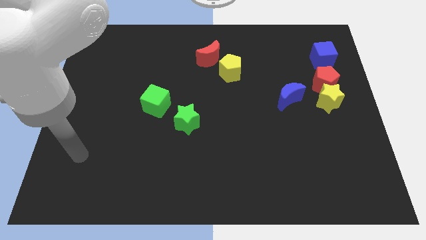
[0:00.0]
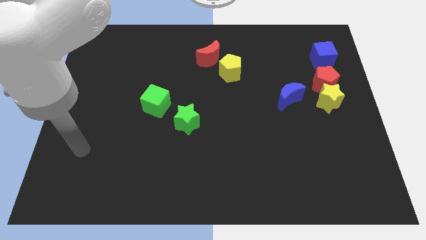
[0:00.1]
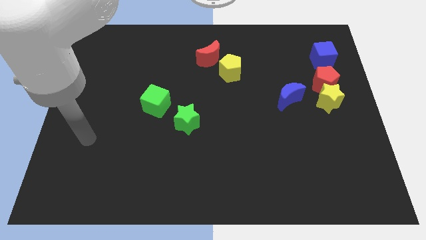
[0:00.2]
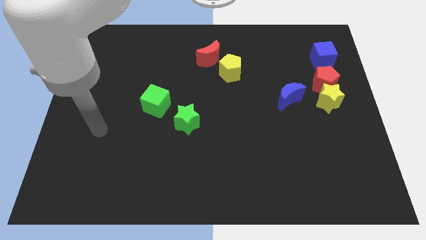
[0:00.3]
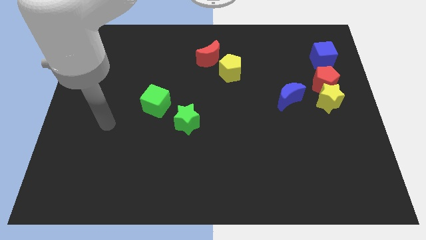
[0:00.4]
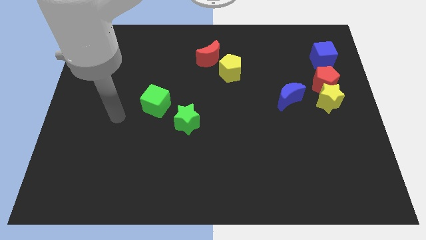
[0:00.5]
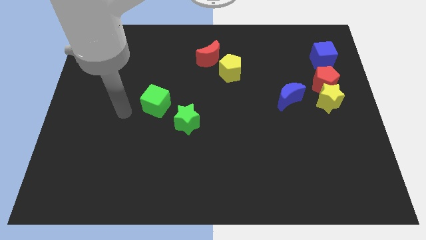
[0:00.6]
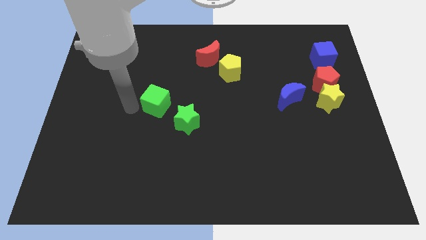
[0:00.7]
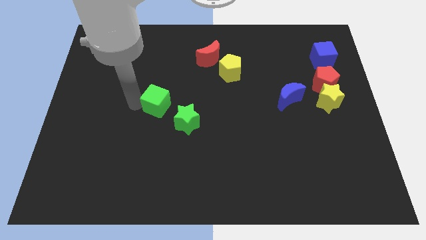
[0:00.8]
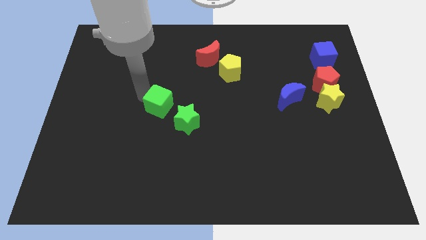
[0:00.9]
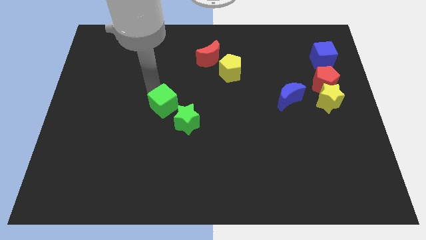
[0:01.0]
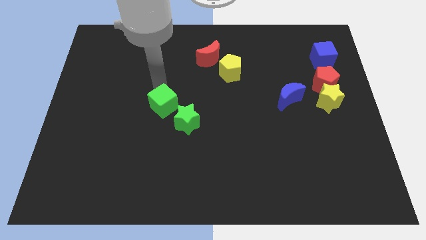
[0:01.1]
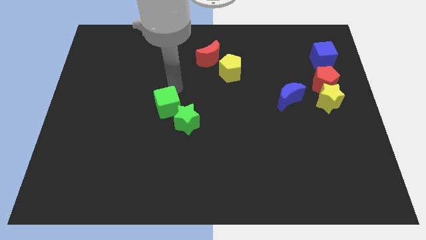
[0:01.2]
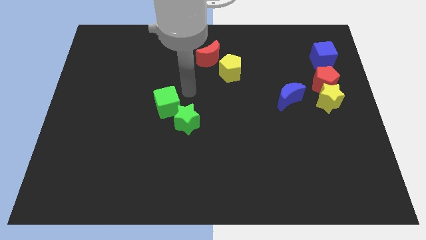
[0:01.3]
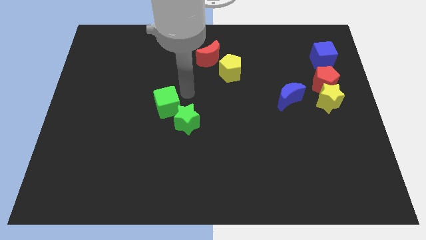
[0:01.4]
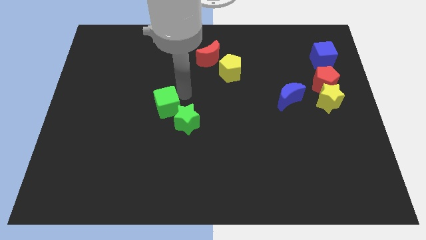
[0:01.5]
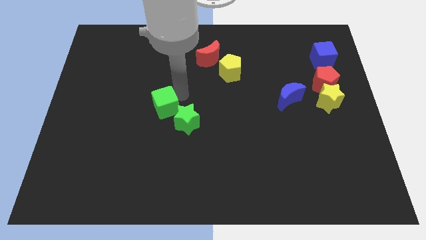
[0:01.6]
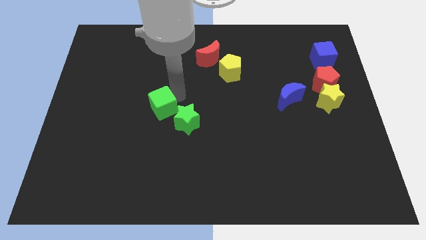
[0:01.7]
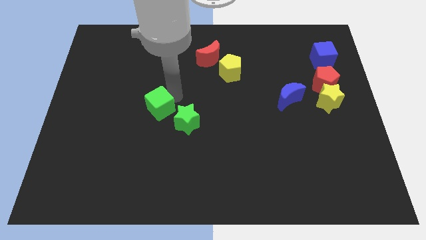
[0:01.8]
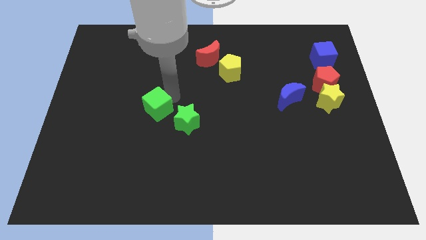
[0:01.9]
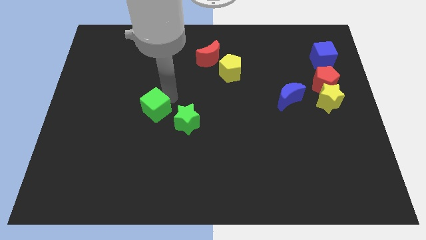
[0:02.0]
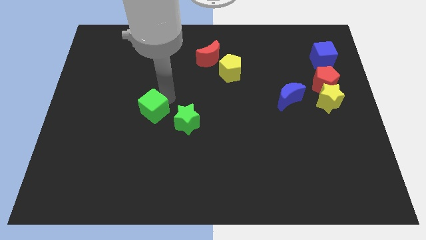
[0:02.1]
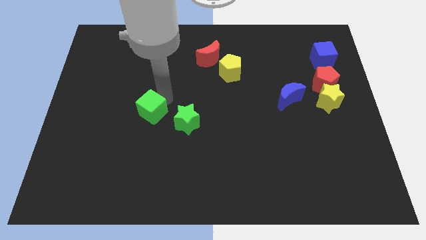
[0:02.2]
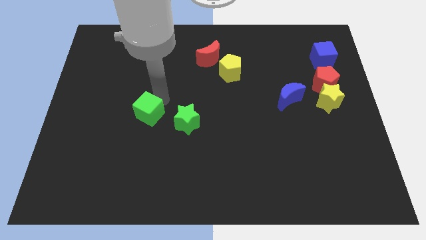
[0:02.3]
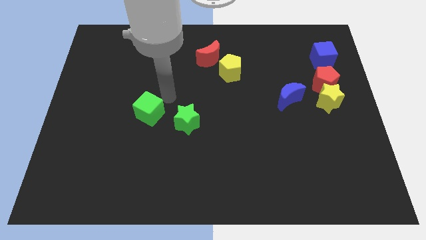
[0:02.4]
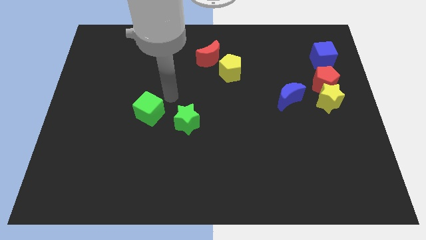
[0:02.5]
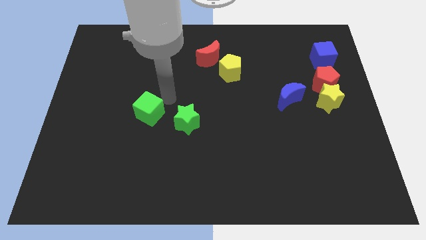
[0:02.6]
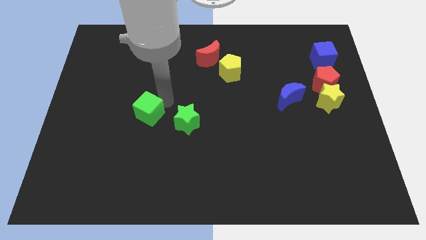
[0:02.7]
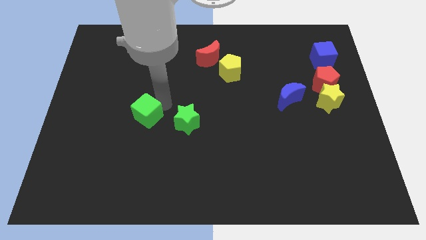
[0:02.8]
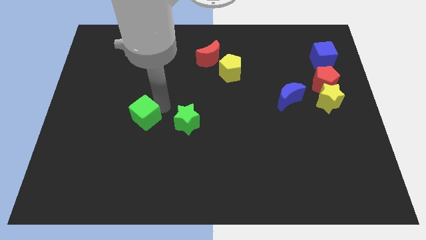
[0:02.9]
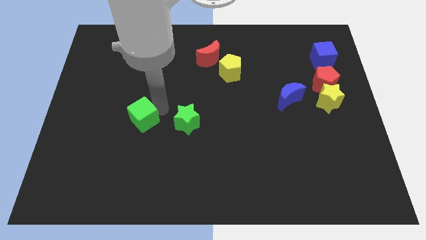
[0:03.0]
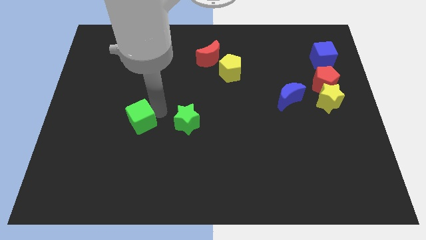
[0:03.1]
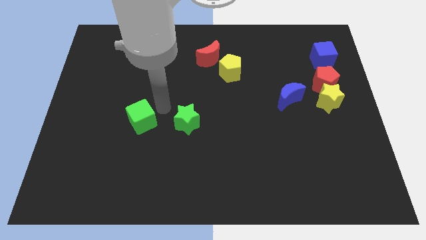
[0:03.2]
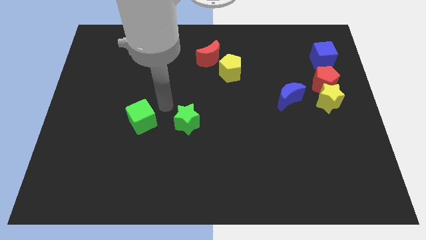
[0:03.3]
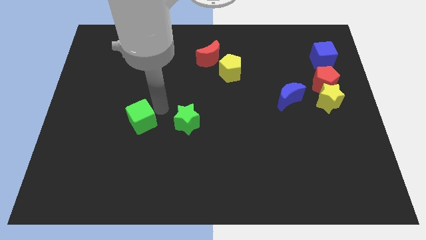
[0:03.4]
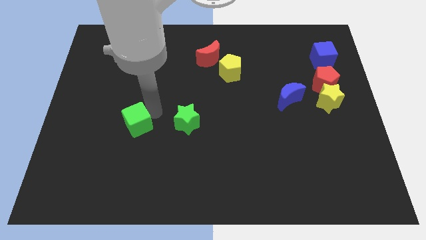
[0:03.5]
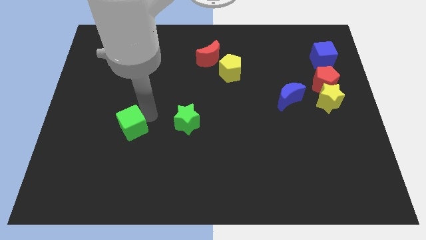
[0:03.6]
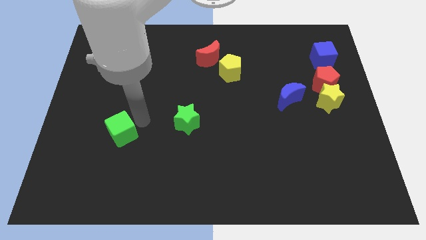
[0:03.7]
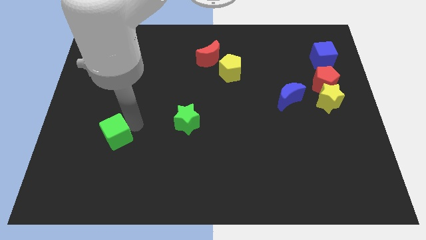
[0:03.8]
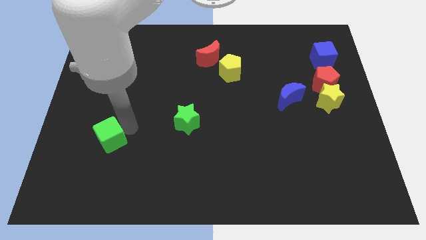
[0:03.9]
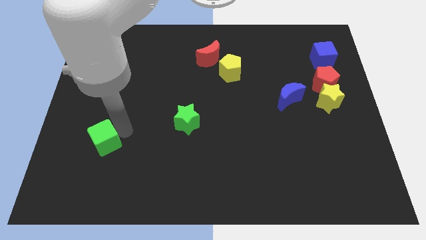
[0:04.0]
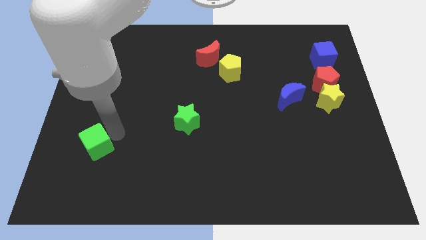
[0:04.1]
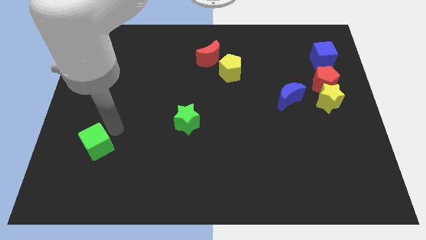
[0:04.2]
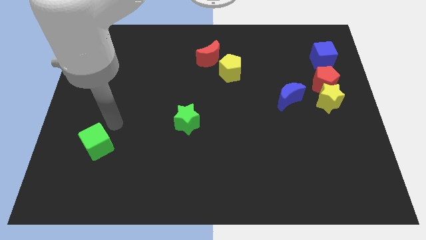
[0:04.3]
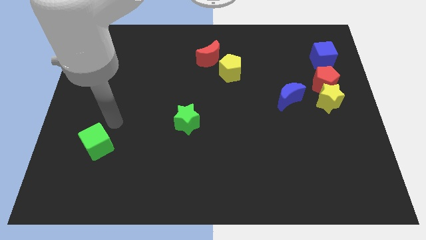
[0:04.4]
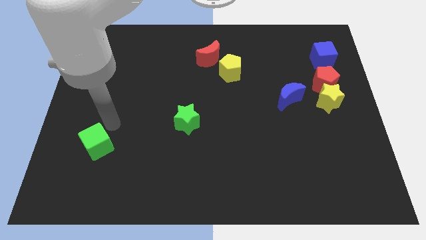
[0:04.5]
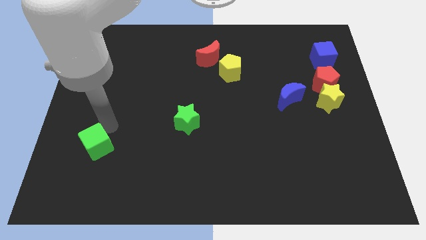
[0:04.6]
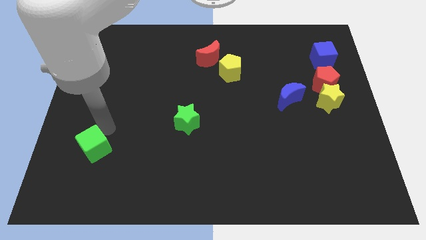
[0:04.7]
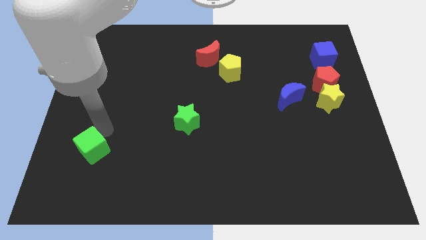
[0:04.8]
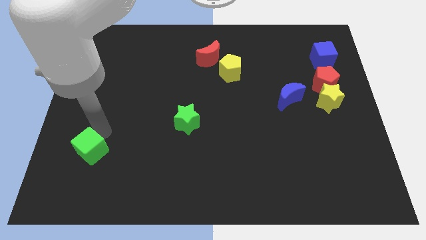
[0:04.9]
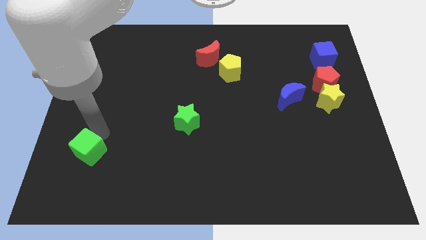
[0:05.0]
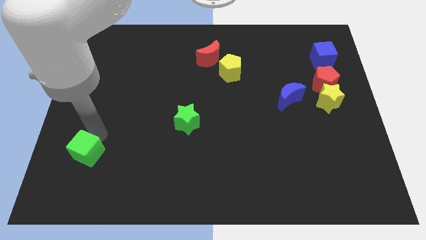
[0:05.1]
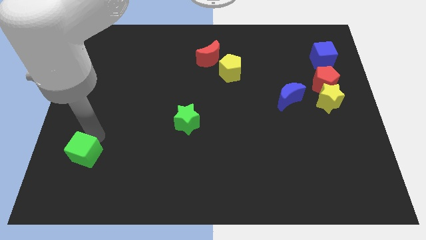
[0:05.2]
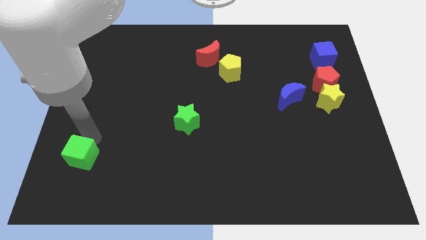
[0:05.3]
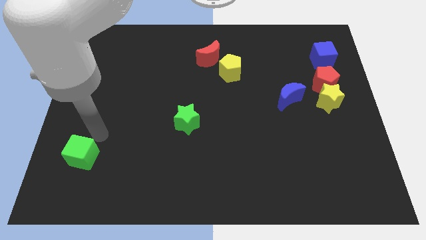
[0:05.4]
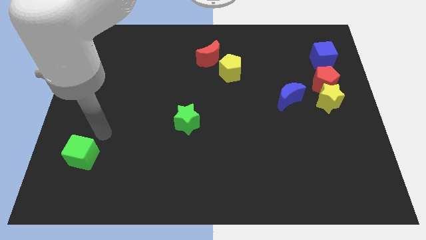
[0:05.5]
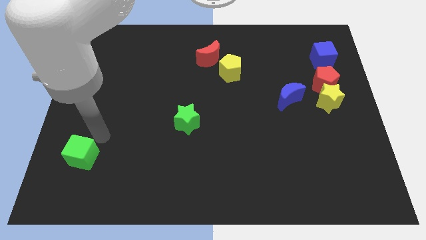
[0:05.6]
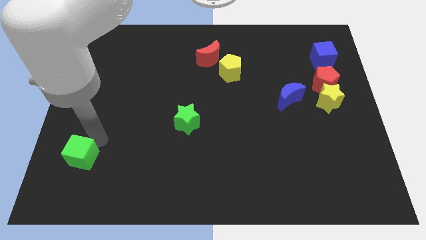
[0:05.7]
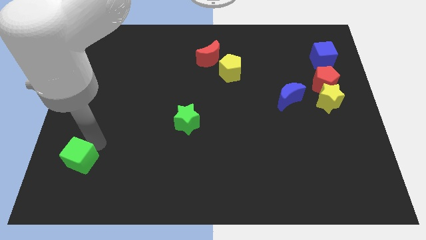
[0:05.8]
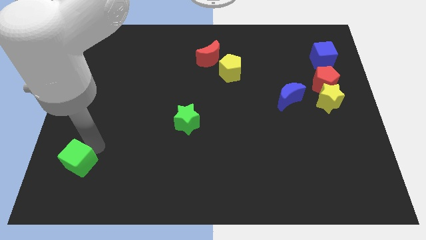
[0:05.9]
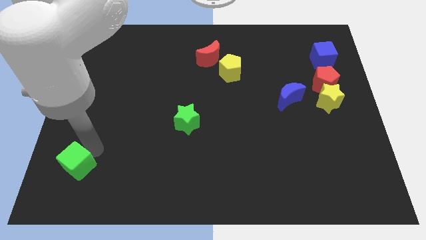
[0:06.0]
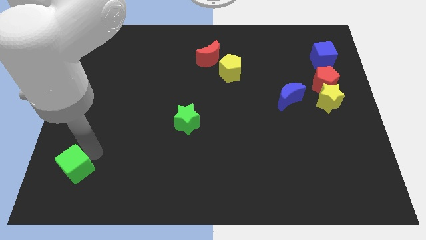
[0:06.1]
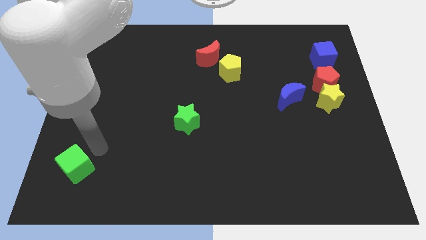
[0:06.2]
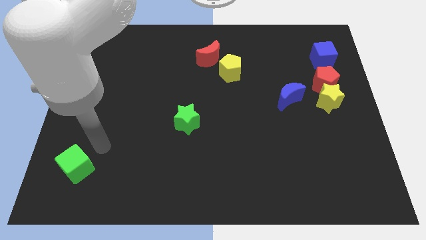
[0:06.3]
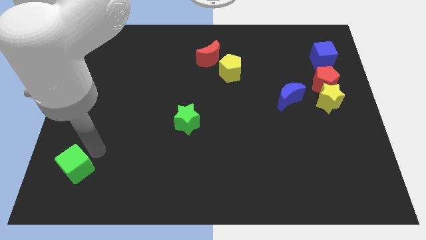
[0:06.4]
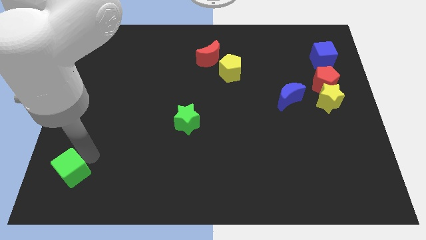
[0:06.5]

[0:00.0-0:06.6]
push the green cube to the bottom left corner
